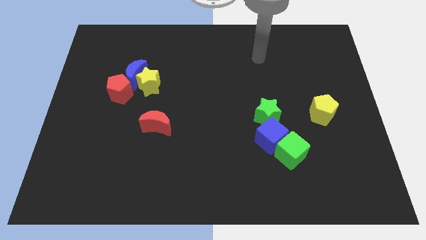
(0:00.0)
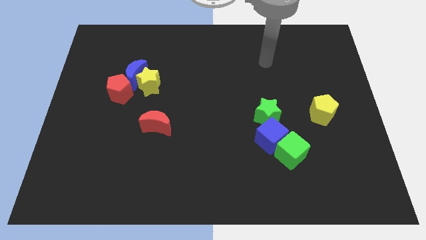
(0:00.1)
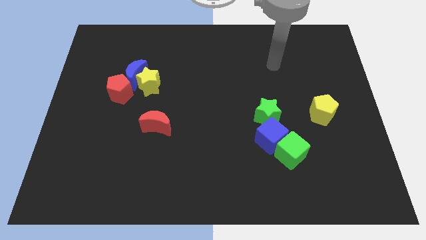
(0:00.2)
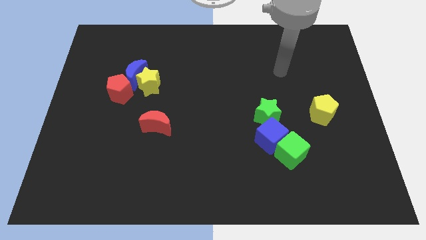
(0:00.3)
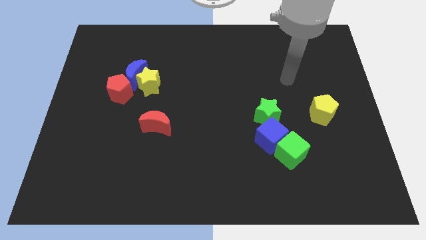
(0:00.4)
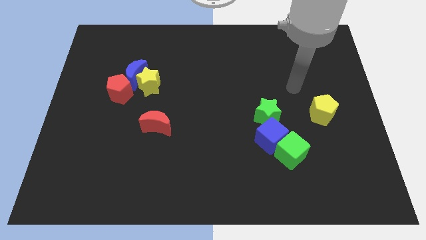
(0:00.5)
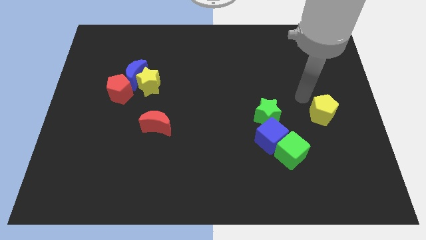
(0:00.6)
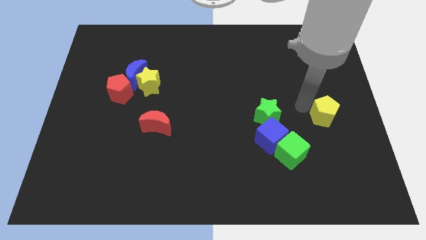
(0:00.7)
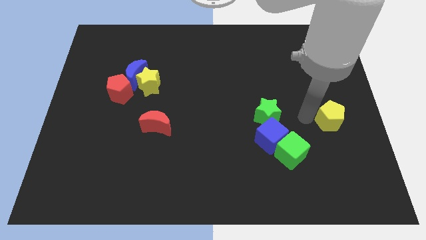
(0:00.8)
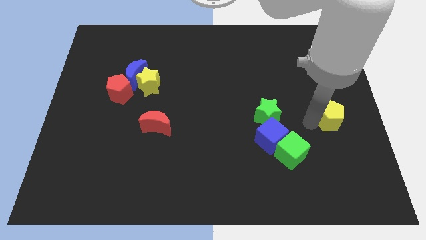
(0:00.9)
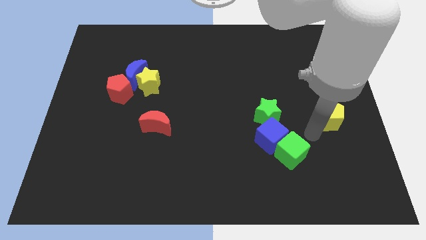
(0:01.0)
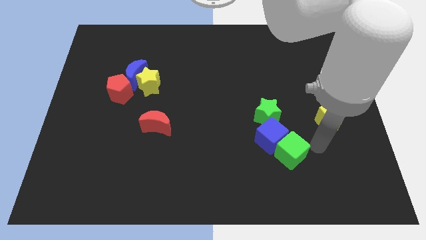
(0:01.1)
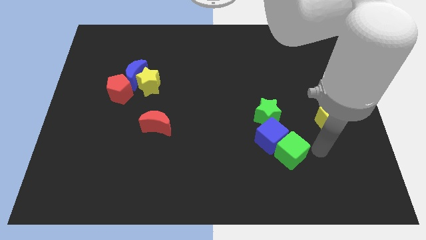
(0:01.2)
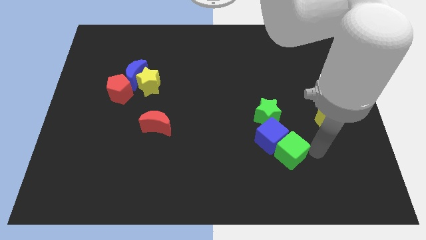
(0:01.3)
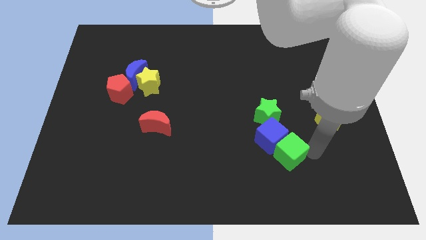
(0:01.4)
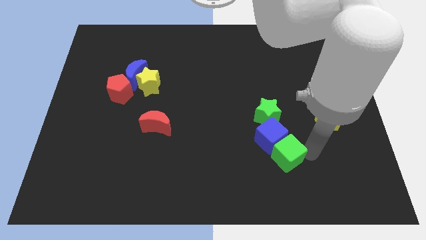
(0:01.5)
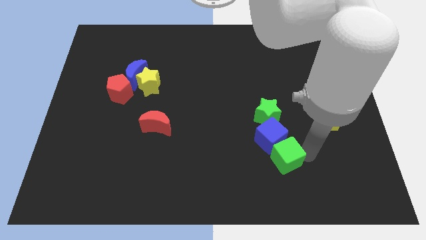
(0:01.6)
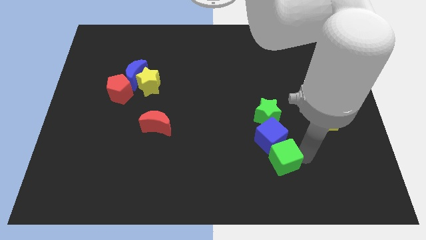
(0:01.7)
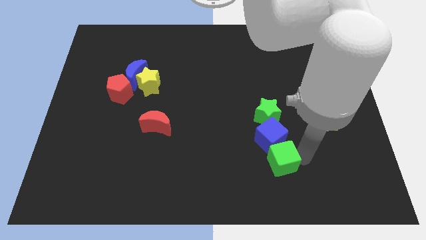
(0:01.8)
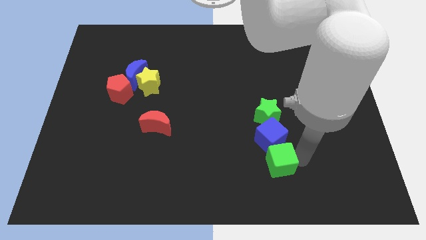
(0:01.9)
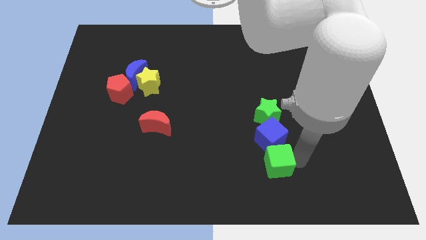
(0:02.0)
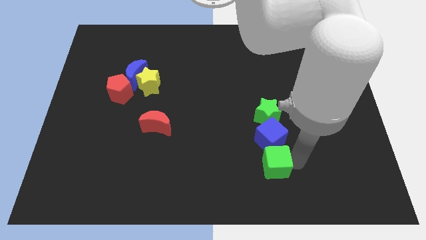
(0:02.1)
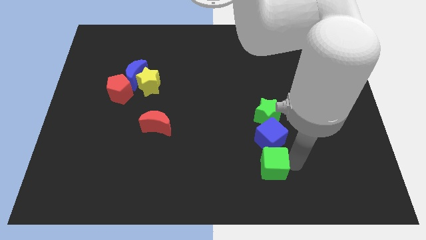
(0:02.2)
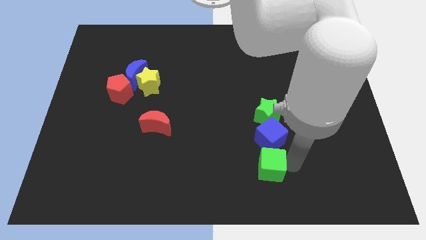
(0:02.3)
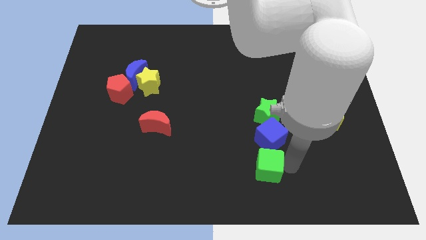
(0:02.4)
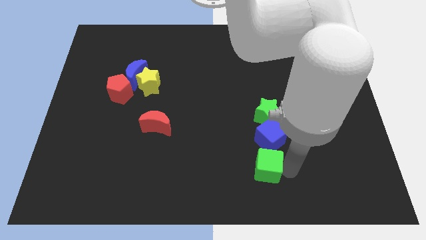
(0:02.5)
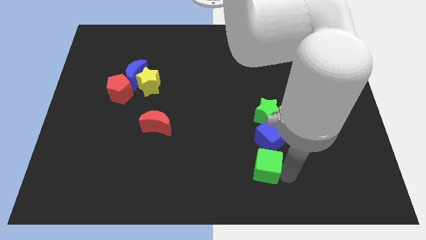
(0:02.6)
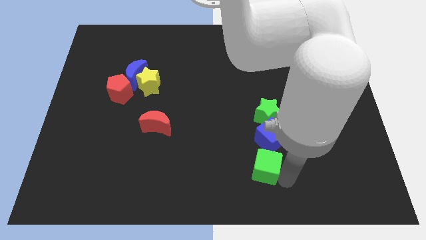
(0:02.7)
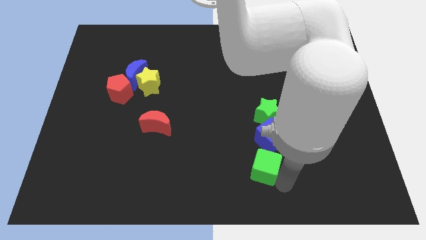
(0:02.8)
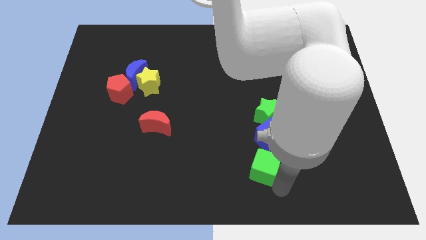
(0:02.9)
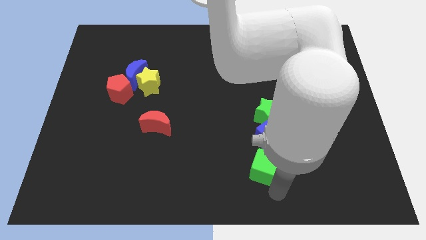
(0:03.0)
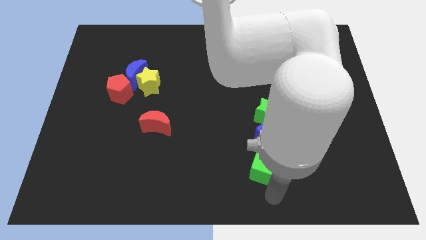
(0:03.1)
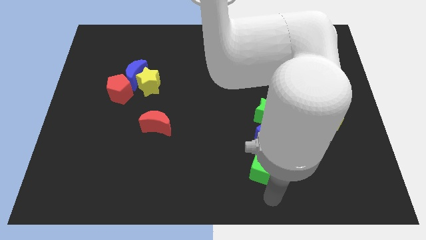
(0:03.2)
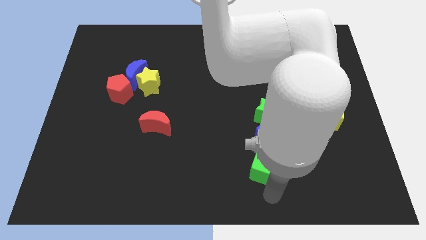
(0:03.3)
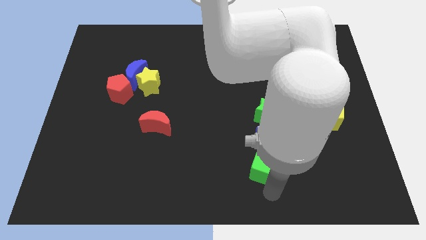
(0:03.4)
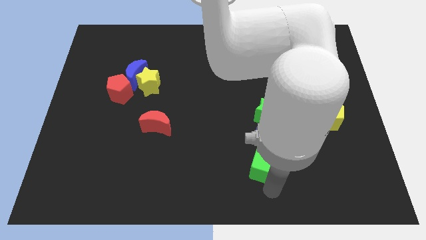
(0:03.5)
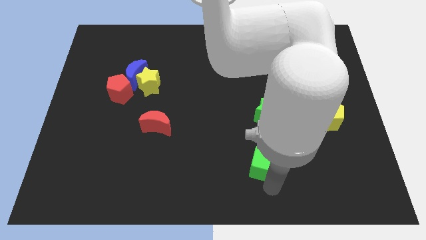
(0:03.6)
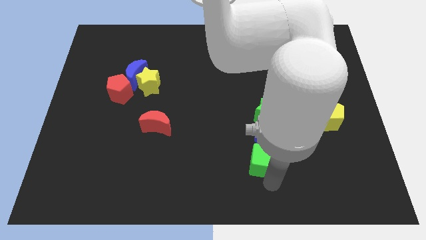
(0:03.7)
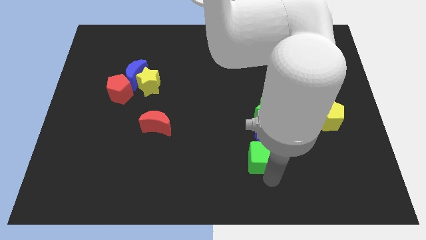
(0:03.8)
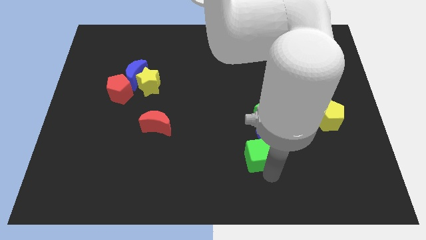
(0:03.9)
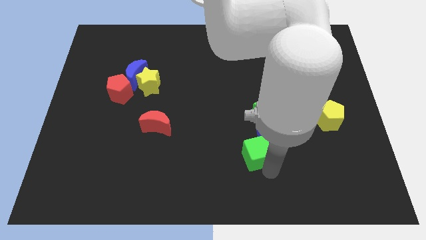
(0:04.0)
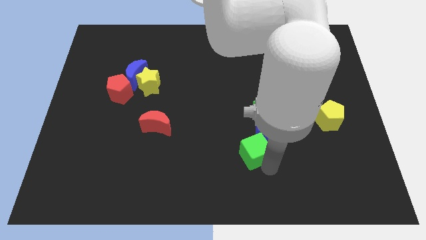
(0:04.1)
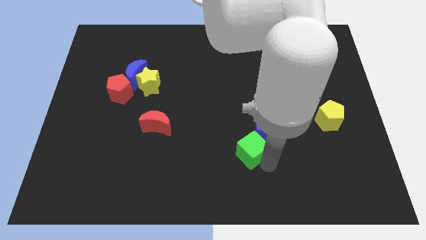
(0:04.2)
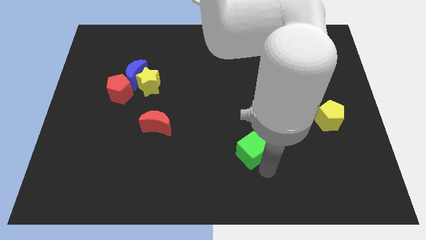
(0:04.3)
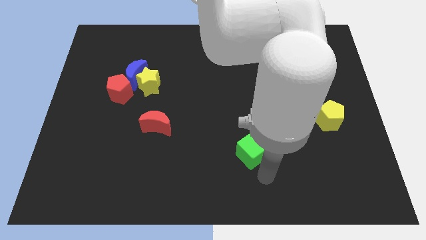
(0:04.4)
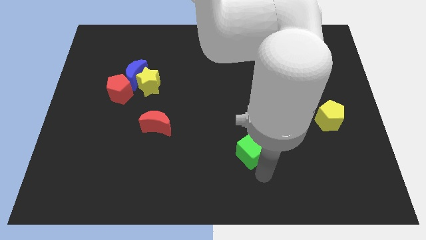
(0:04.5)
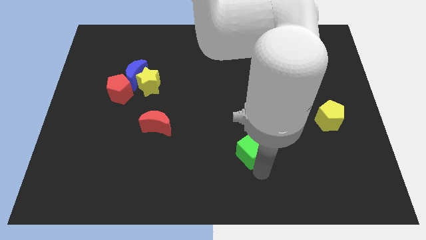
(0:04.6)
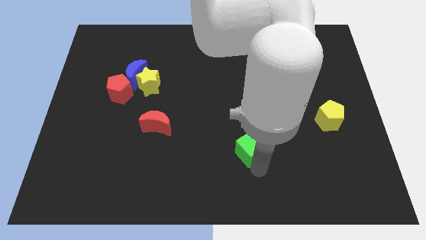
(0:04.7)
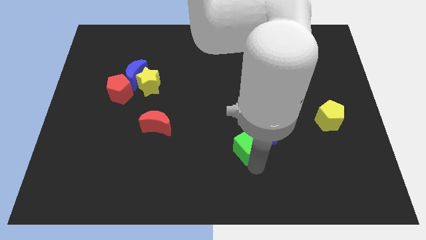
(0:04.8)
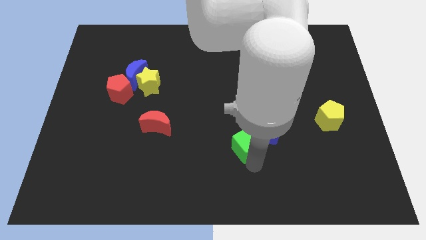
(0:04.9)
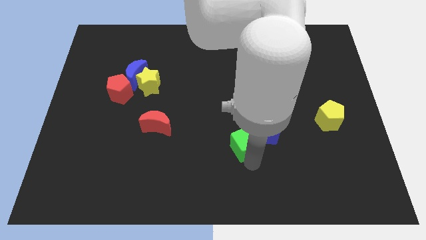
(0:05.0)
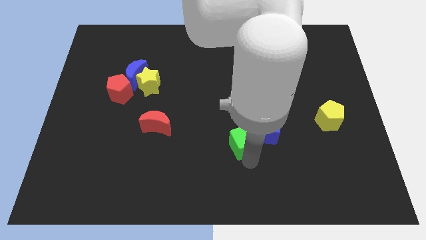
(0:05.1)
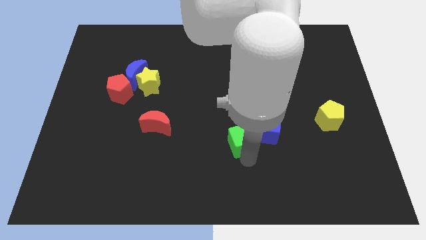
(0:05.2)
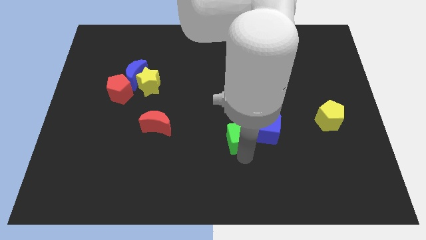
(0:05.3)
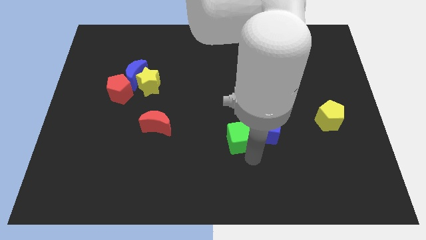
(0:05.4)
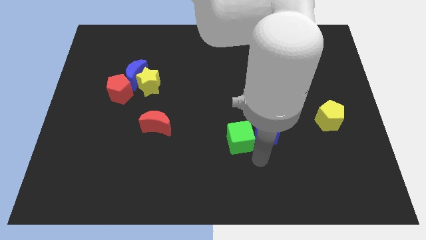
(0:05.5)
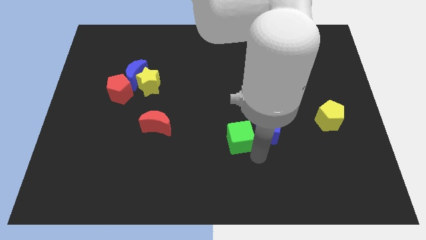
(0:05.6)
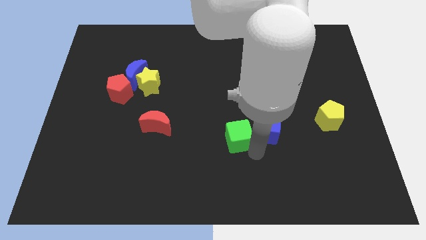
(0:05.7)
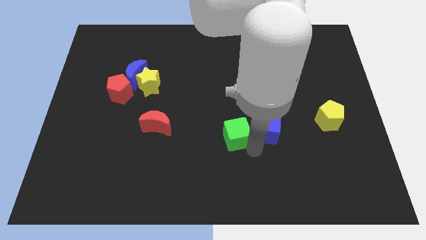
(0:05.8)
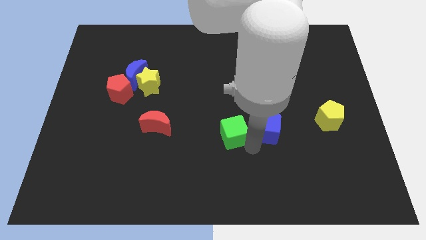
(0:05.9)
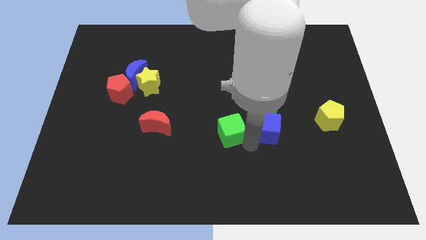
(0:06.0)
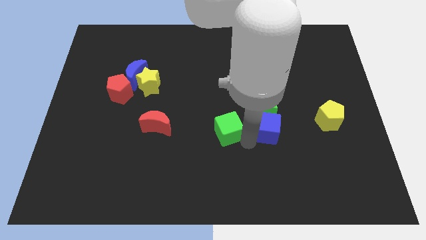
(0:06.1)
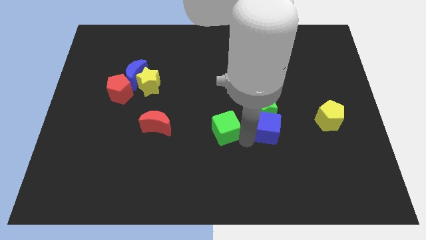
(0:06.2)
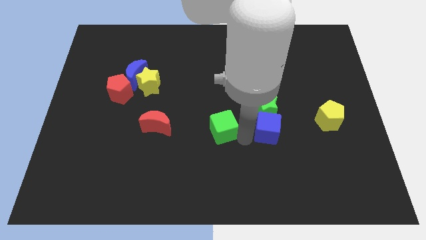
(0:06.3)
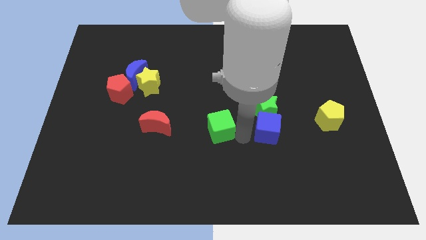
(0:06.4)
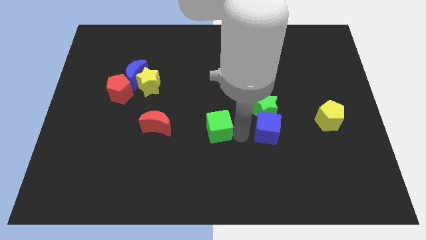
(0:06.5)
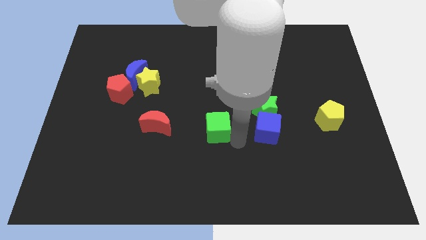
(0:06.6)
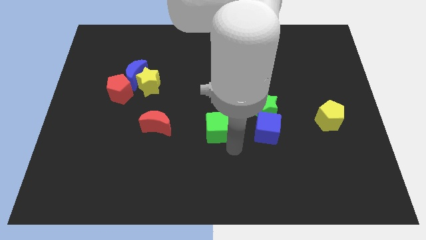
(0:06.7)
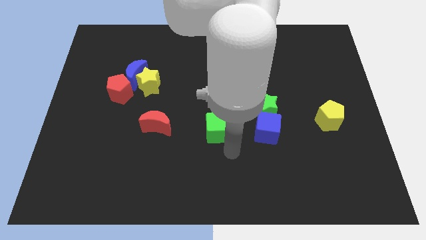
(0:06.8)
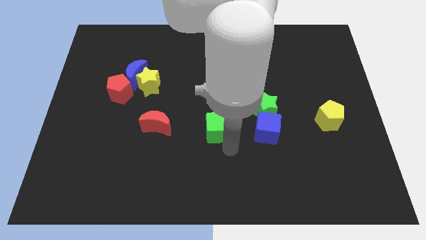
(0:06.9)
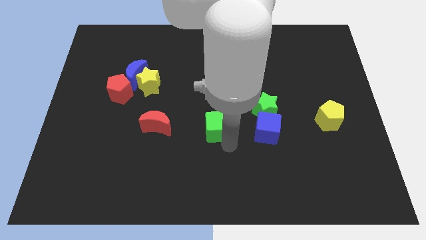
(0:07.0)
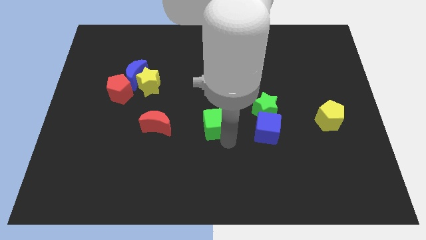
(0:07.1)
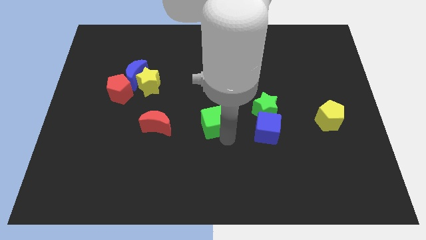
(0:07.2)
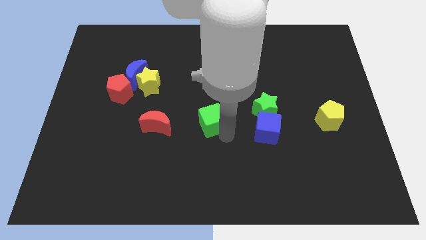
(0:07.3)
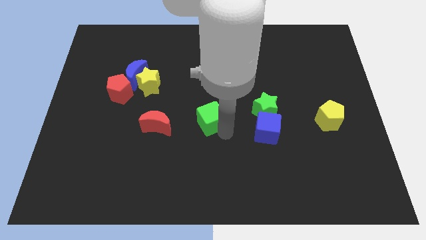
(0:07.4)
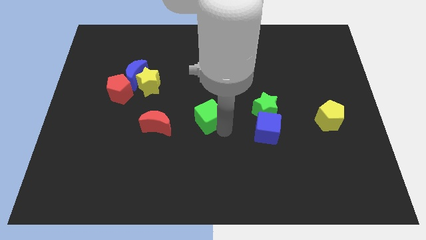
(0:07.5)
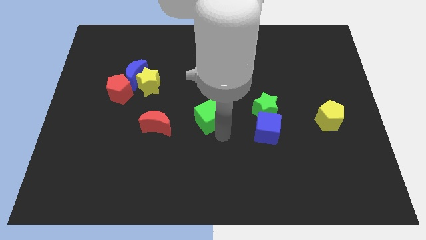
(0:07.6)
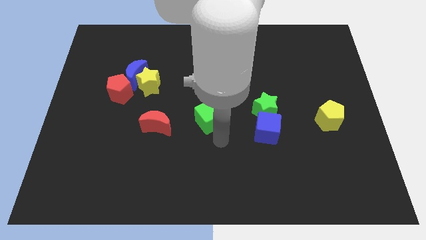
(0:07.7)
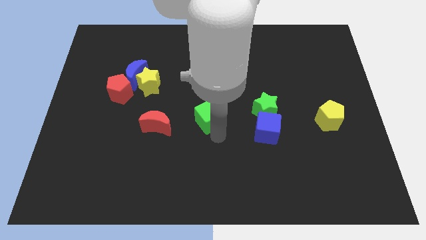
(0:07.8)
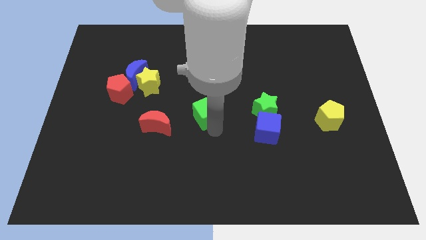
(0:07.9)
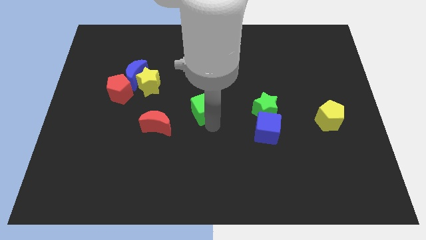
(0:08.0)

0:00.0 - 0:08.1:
push the green cube diagonally upwards and left

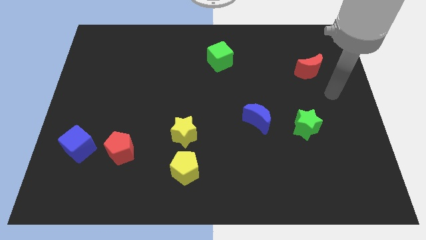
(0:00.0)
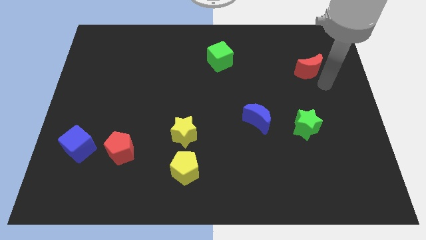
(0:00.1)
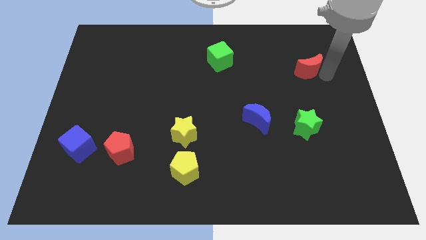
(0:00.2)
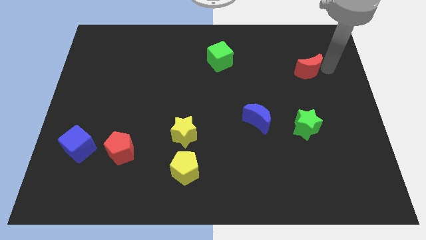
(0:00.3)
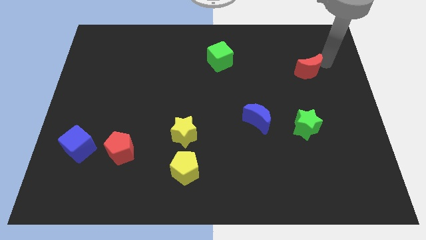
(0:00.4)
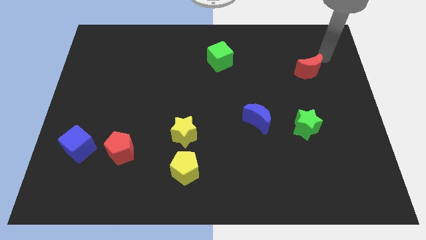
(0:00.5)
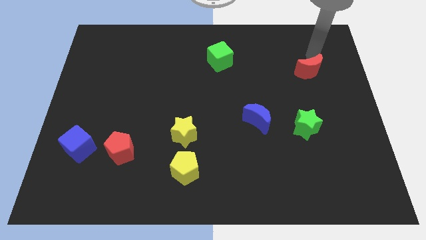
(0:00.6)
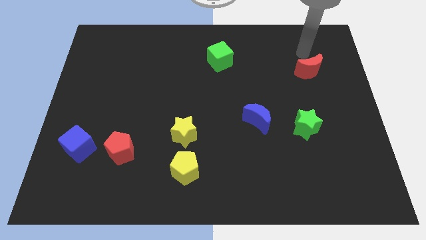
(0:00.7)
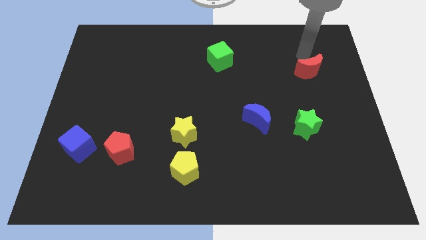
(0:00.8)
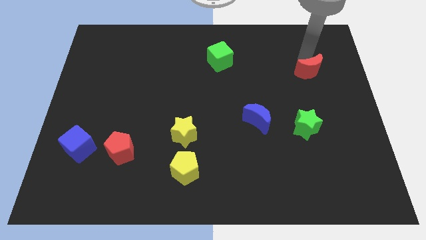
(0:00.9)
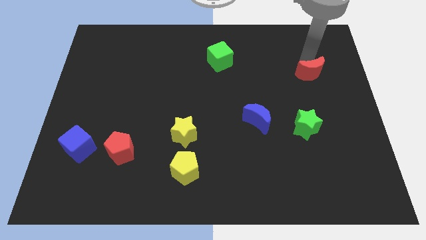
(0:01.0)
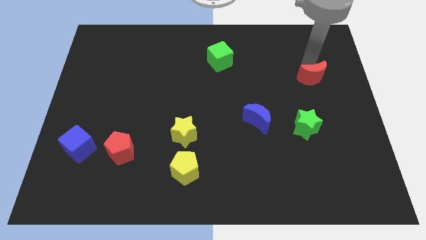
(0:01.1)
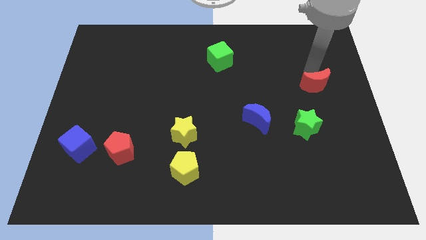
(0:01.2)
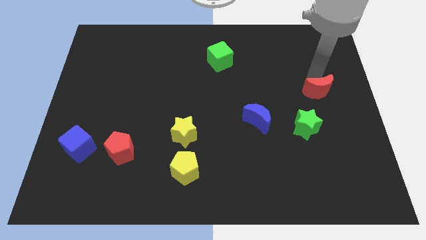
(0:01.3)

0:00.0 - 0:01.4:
move the red moon downwards somewhat
